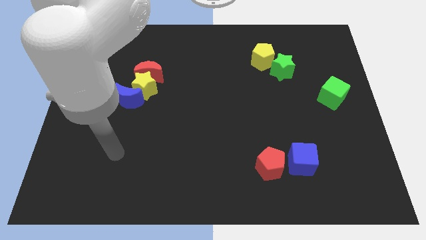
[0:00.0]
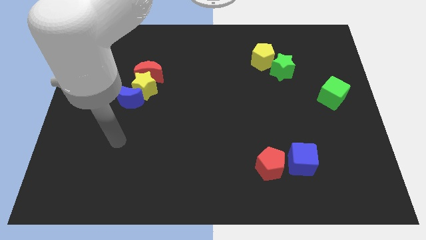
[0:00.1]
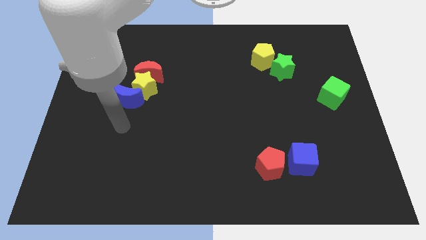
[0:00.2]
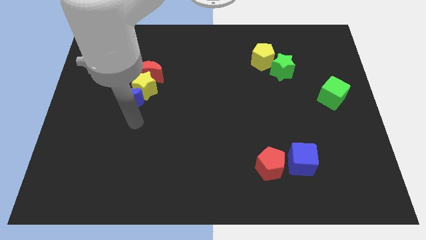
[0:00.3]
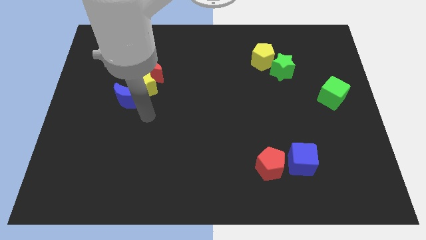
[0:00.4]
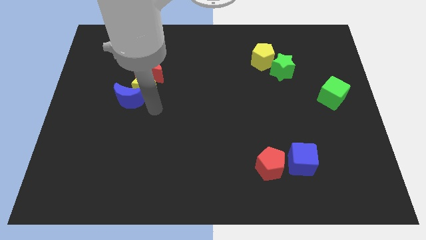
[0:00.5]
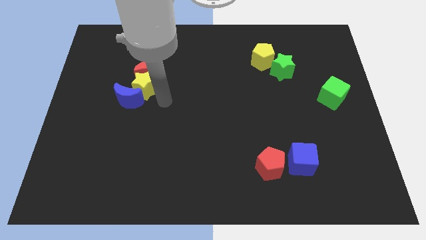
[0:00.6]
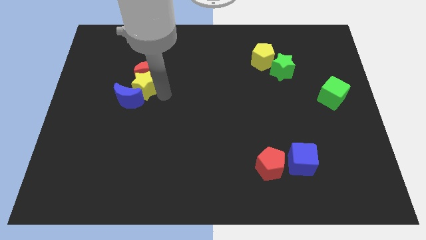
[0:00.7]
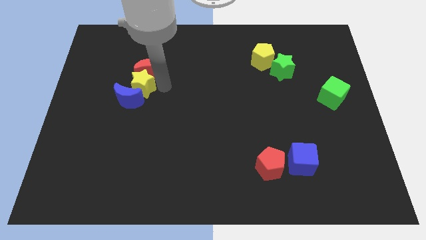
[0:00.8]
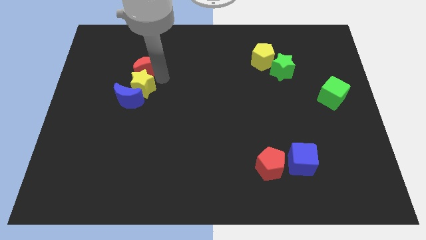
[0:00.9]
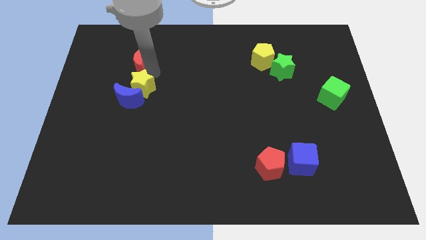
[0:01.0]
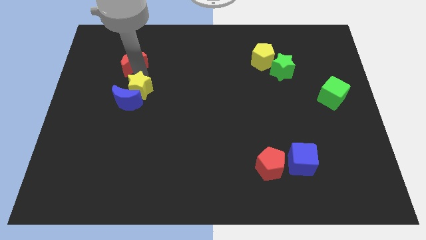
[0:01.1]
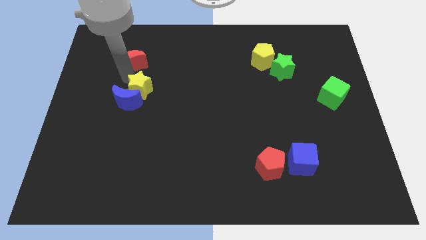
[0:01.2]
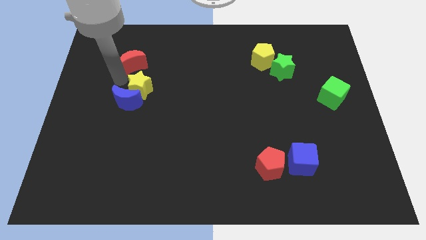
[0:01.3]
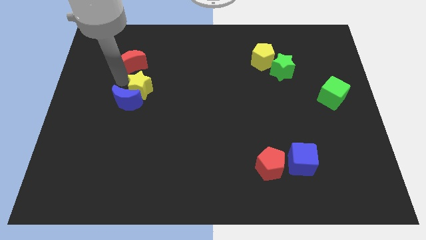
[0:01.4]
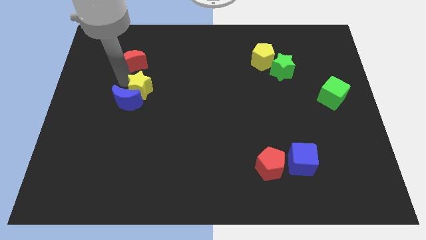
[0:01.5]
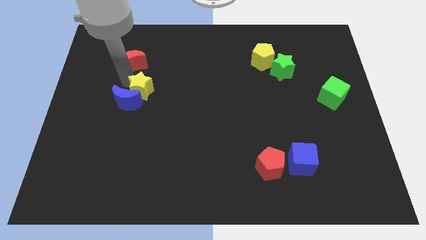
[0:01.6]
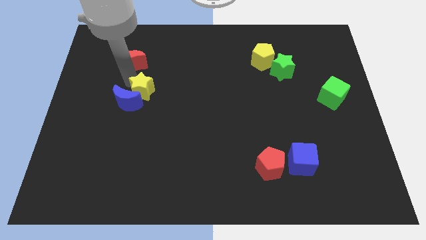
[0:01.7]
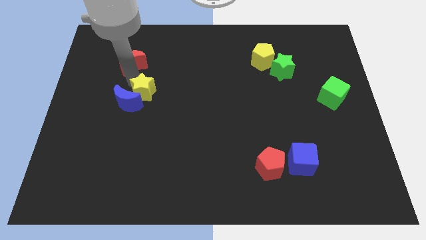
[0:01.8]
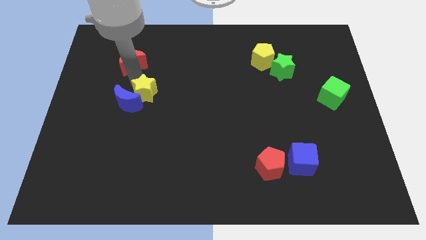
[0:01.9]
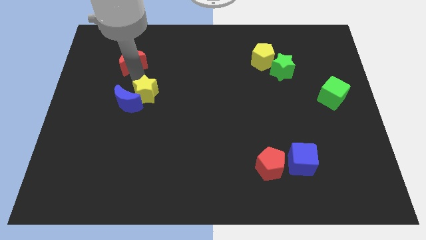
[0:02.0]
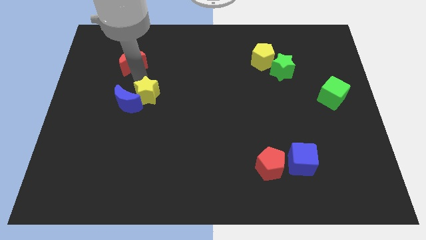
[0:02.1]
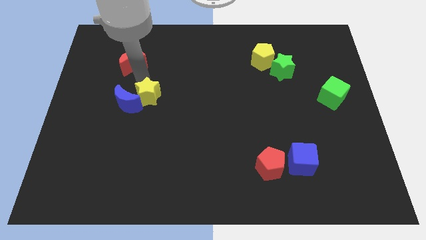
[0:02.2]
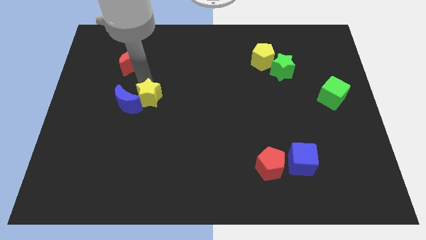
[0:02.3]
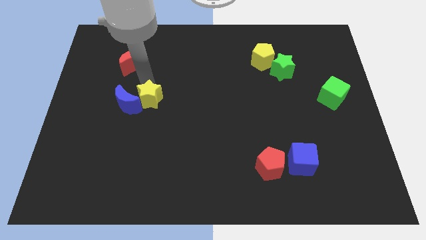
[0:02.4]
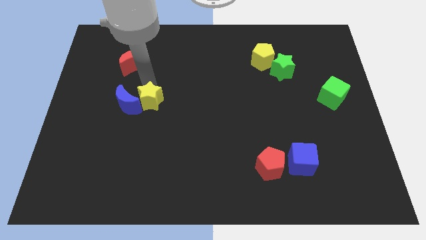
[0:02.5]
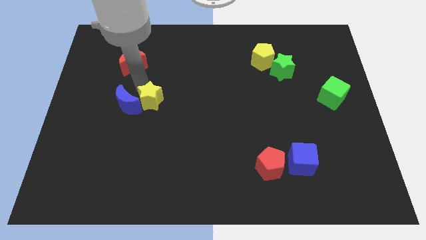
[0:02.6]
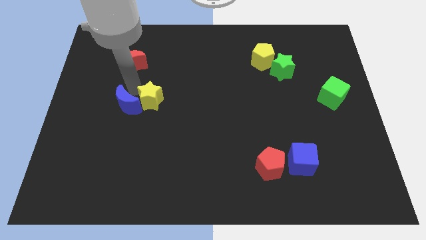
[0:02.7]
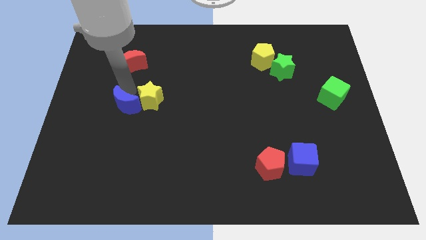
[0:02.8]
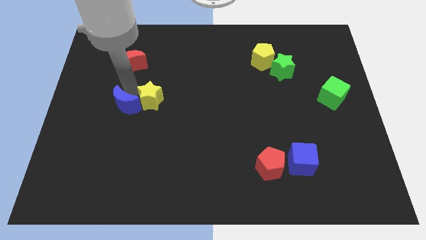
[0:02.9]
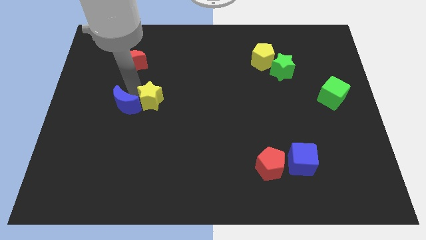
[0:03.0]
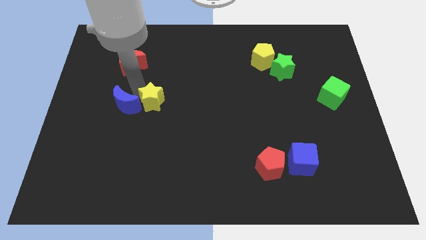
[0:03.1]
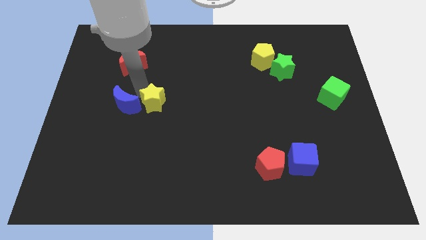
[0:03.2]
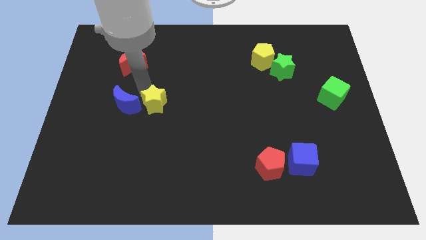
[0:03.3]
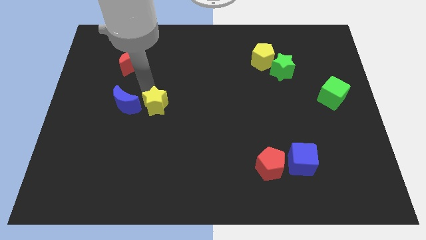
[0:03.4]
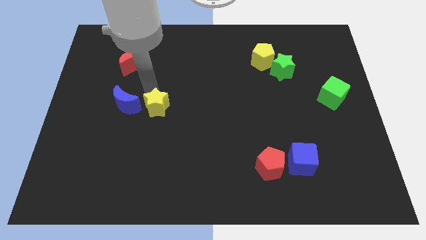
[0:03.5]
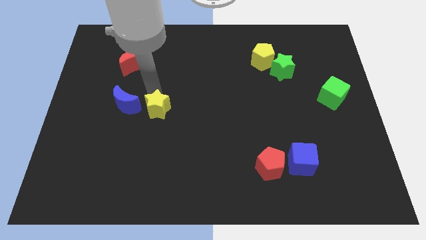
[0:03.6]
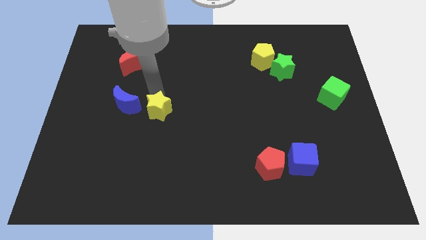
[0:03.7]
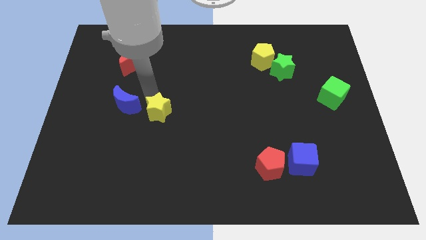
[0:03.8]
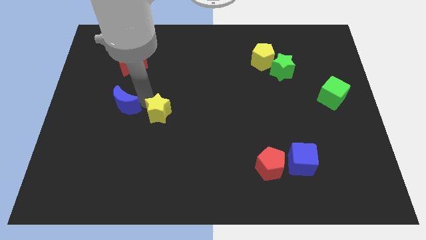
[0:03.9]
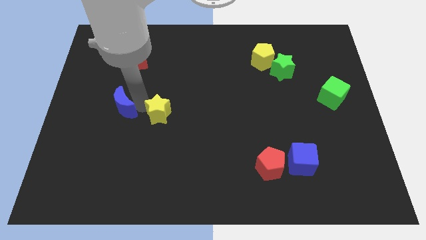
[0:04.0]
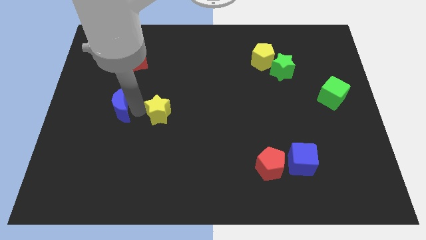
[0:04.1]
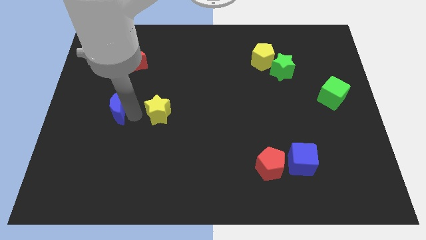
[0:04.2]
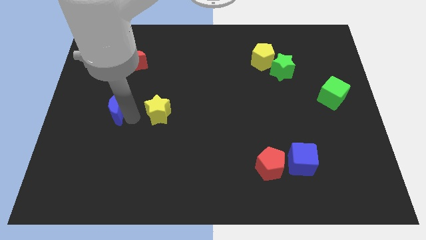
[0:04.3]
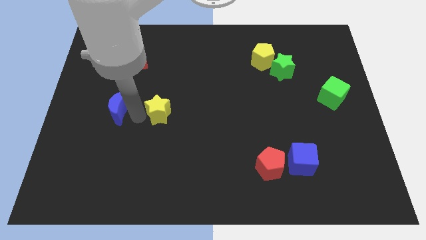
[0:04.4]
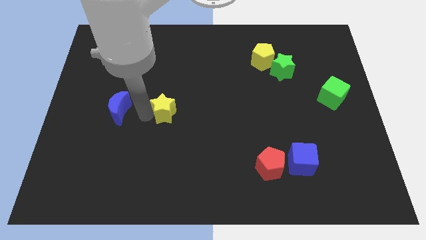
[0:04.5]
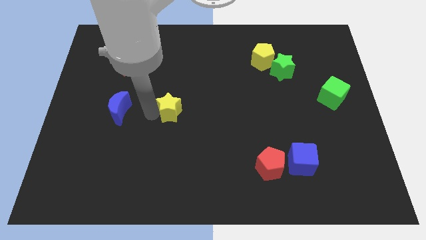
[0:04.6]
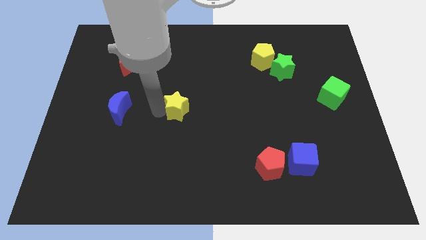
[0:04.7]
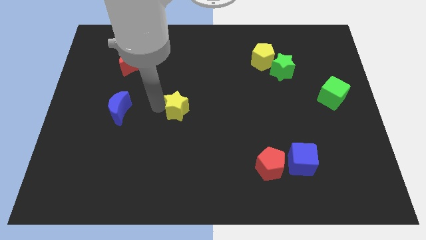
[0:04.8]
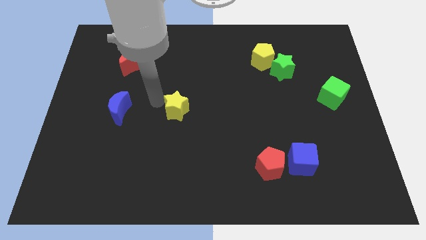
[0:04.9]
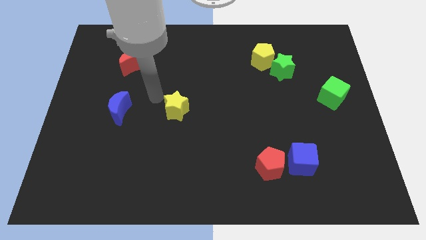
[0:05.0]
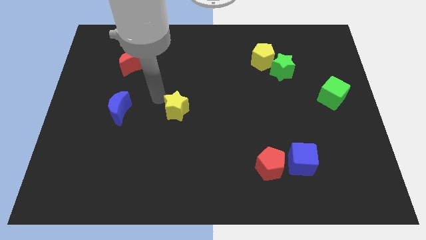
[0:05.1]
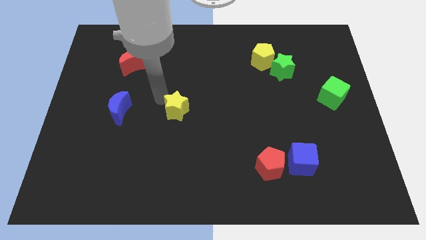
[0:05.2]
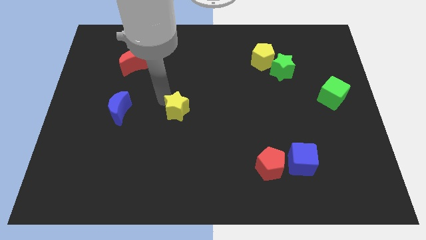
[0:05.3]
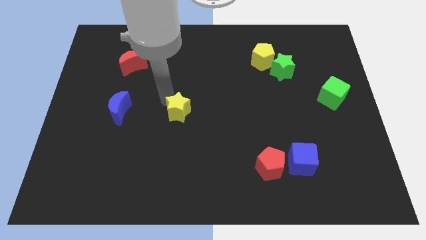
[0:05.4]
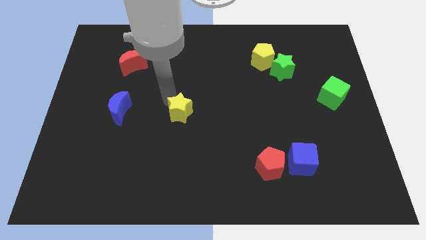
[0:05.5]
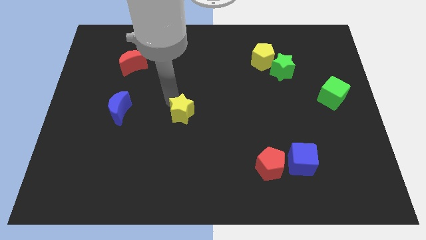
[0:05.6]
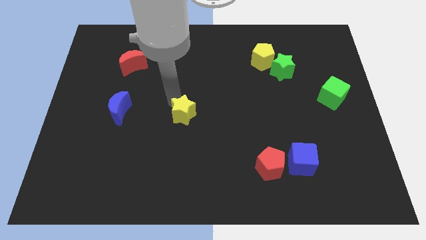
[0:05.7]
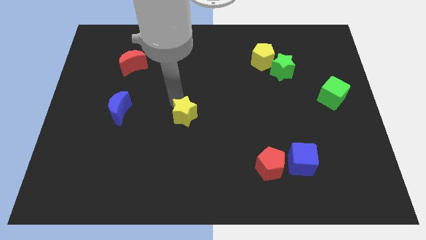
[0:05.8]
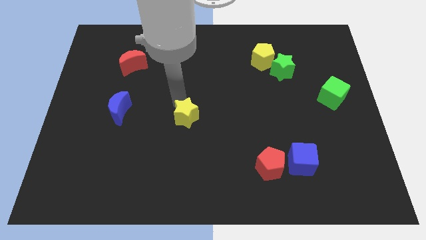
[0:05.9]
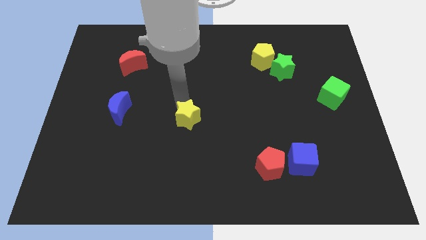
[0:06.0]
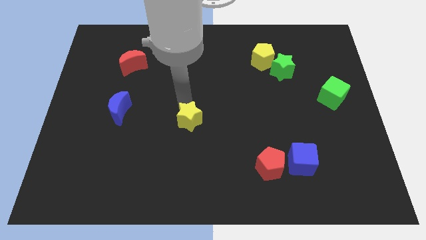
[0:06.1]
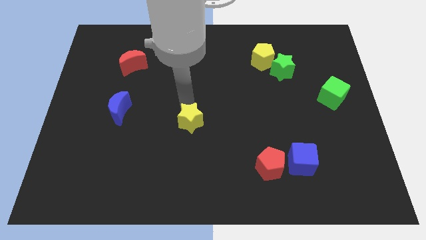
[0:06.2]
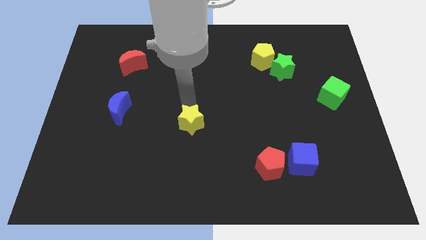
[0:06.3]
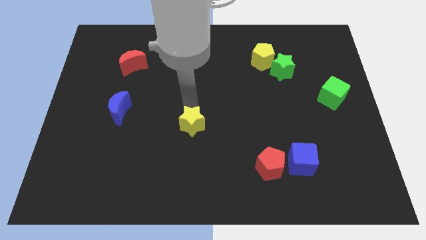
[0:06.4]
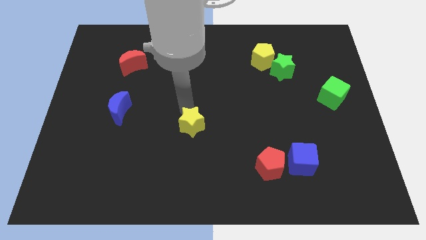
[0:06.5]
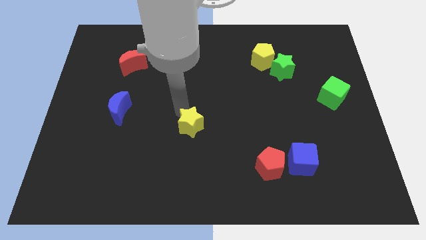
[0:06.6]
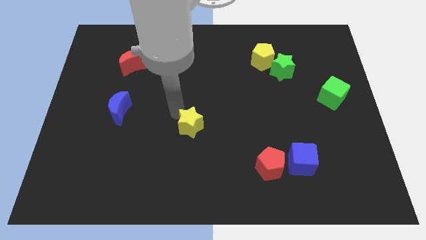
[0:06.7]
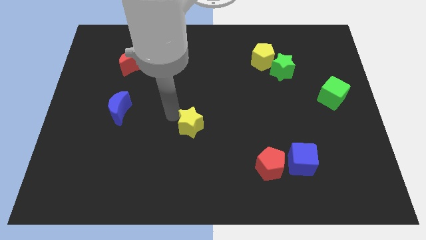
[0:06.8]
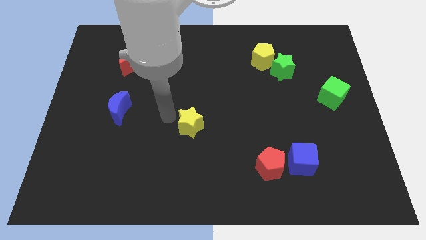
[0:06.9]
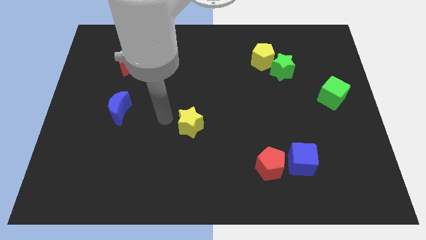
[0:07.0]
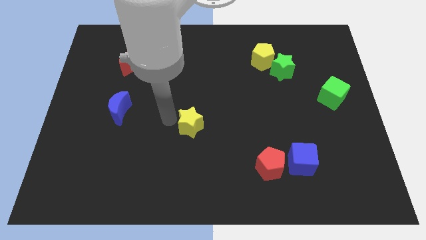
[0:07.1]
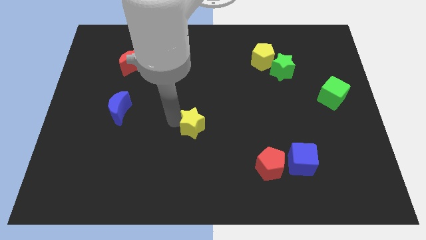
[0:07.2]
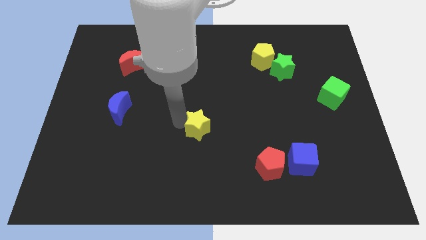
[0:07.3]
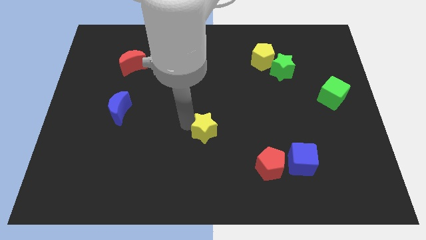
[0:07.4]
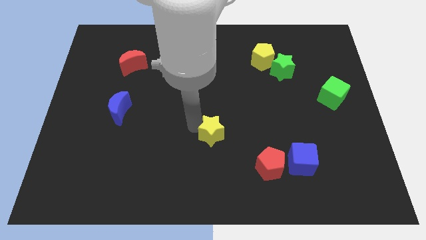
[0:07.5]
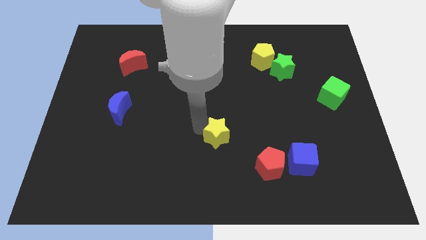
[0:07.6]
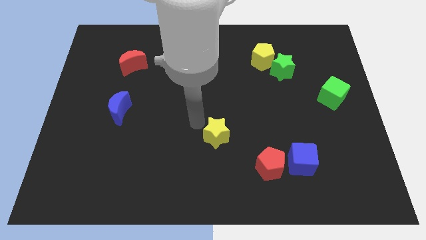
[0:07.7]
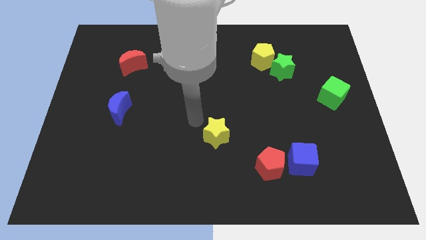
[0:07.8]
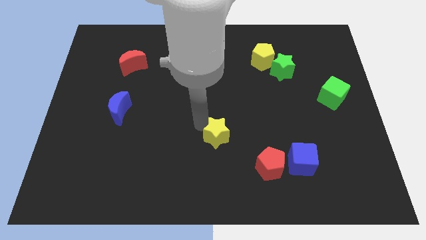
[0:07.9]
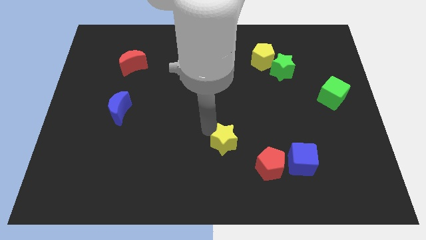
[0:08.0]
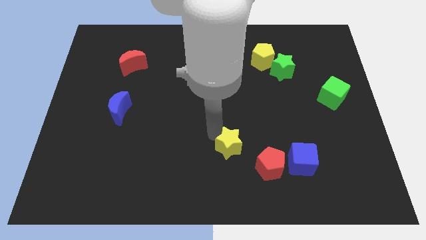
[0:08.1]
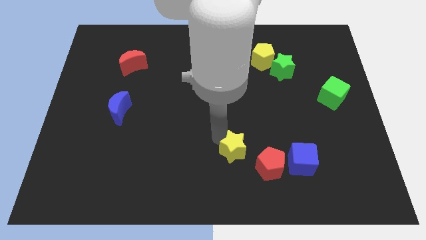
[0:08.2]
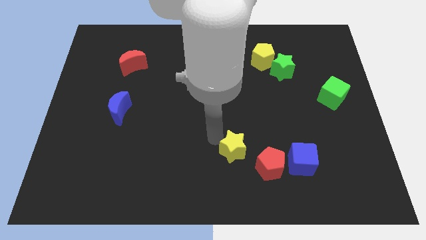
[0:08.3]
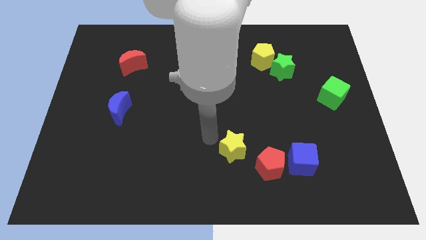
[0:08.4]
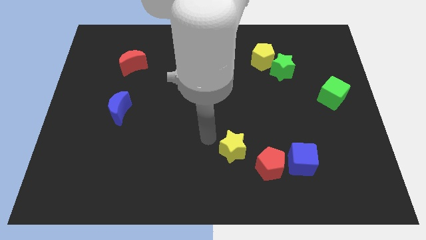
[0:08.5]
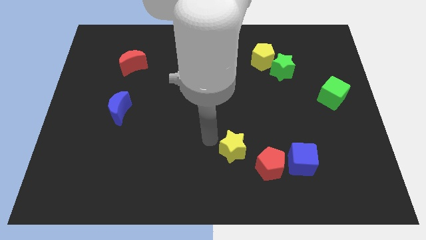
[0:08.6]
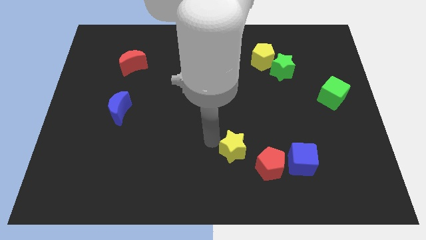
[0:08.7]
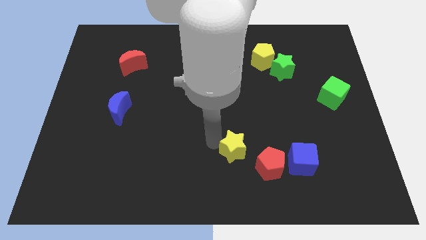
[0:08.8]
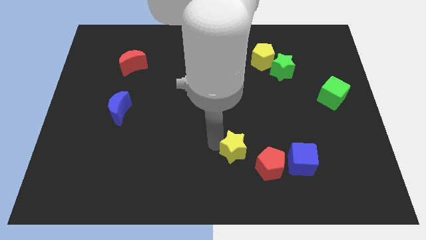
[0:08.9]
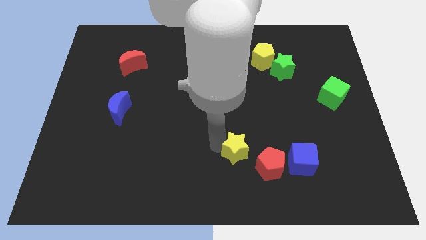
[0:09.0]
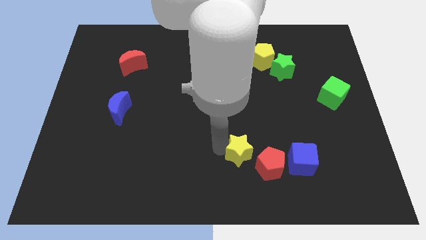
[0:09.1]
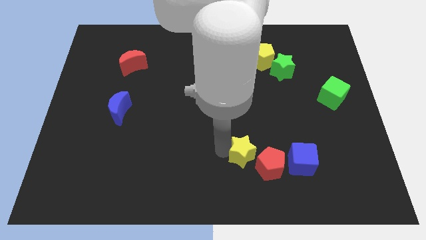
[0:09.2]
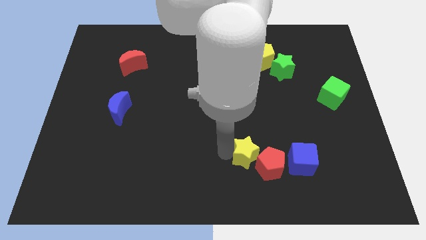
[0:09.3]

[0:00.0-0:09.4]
slide the yellow star close to the red pentagon
